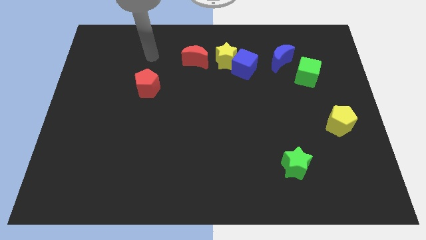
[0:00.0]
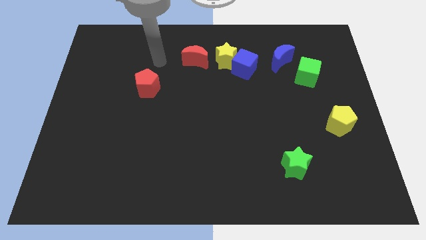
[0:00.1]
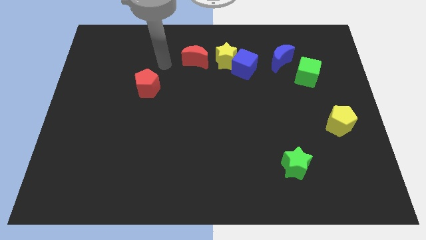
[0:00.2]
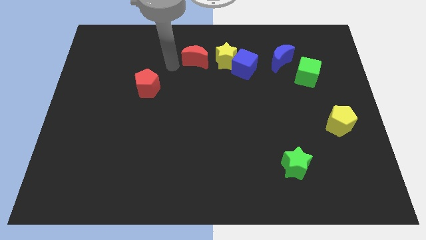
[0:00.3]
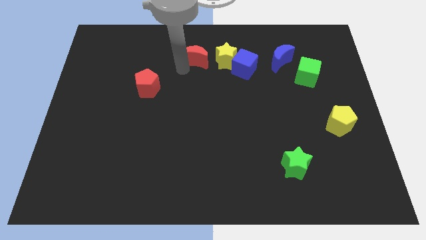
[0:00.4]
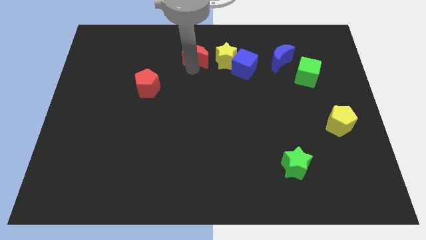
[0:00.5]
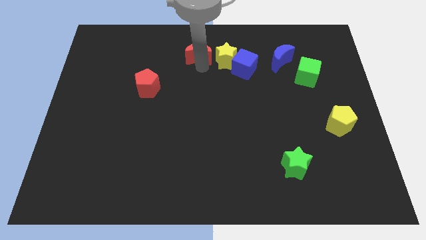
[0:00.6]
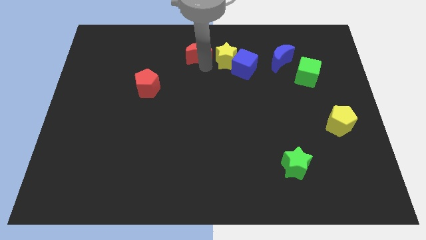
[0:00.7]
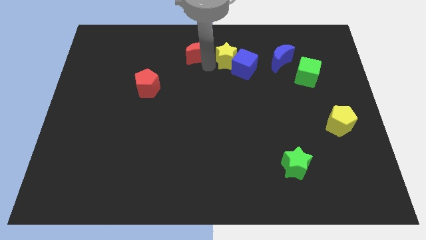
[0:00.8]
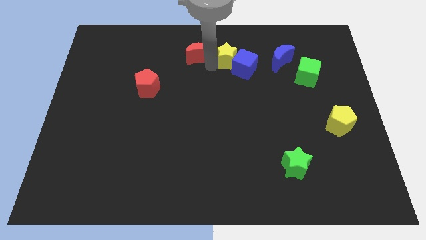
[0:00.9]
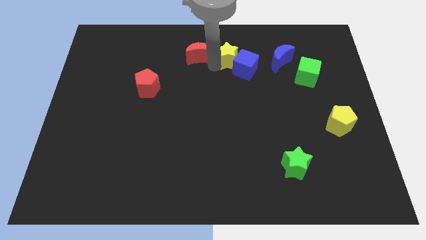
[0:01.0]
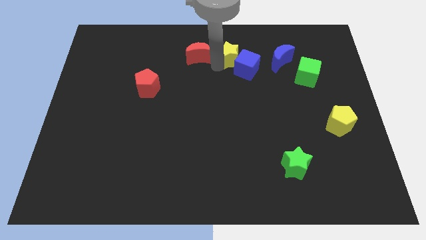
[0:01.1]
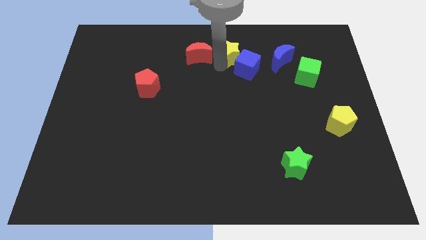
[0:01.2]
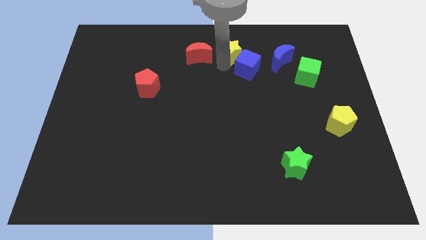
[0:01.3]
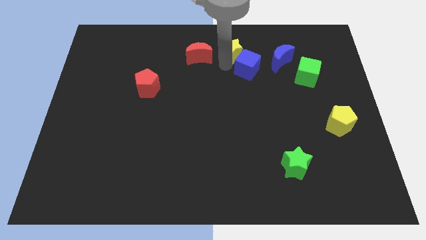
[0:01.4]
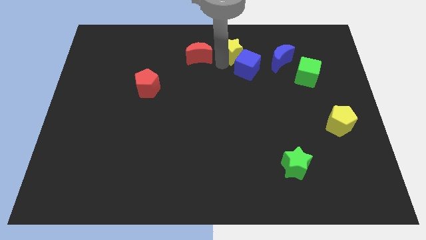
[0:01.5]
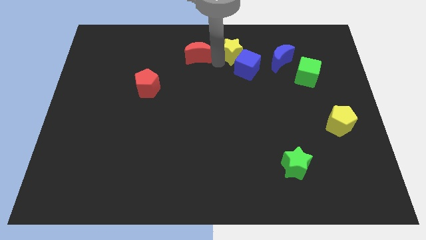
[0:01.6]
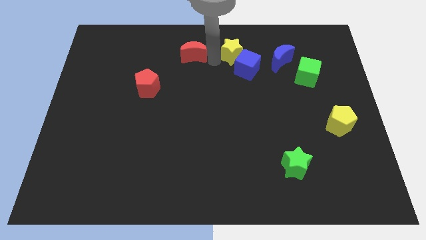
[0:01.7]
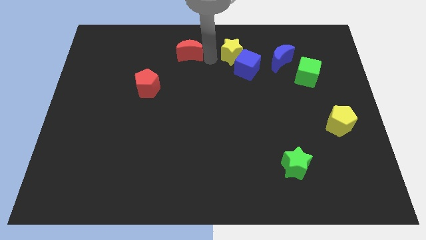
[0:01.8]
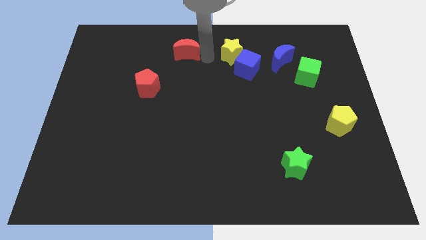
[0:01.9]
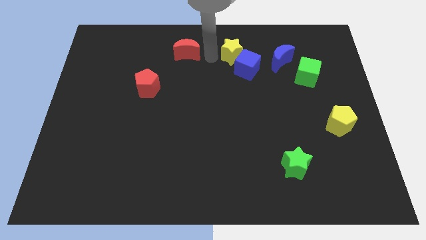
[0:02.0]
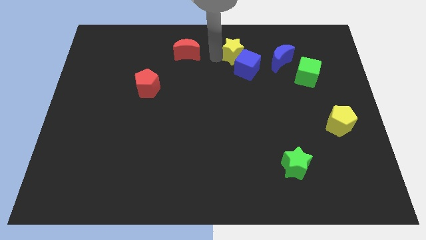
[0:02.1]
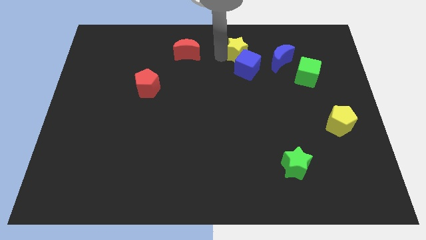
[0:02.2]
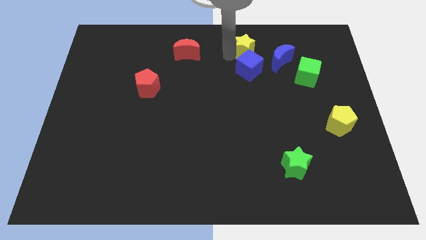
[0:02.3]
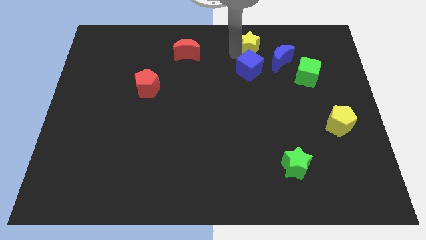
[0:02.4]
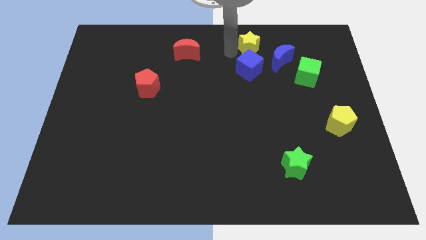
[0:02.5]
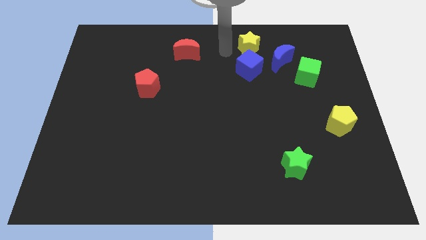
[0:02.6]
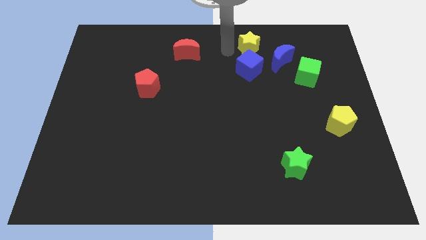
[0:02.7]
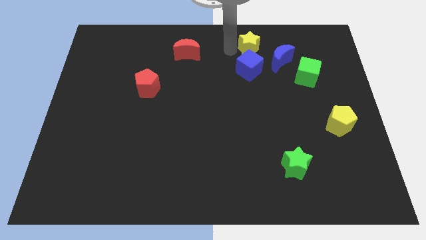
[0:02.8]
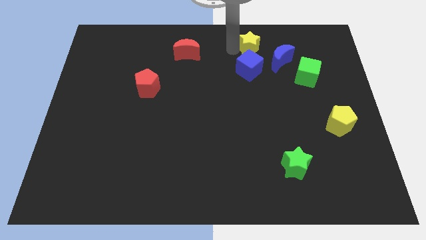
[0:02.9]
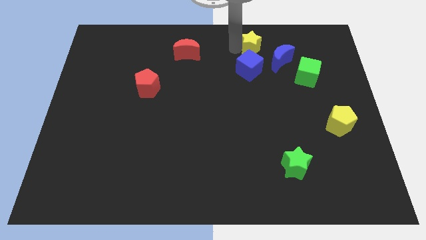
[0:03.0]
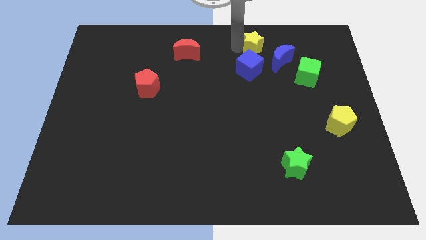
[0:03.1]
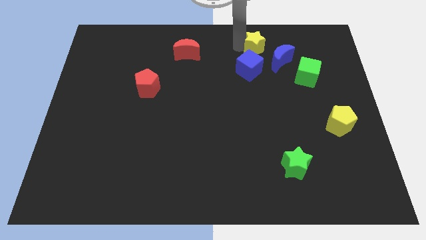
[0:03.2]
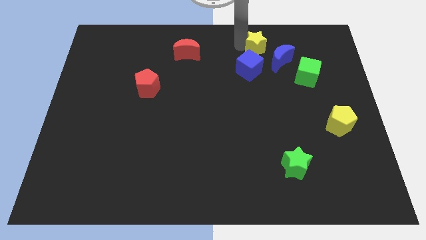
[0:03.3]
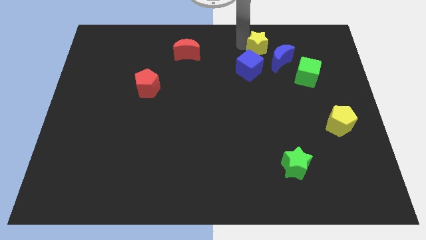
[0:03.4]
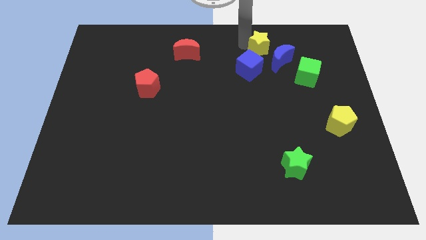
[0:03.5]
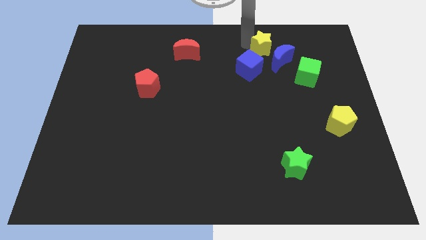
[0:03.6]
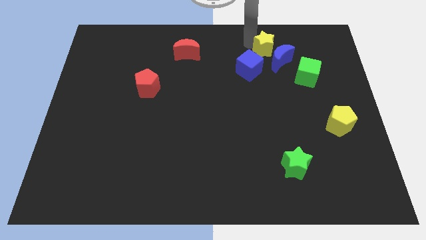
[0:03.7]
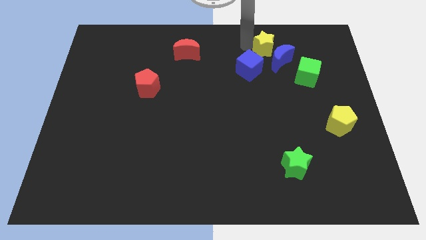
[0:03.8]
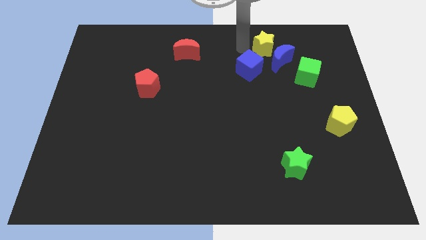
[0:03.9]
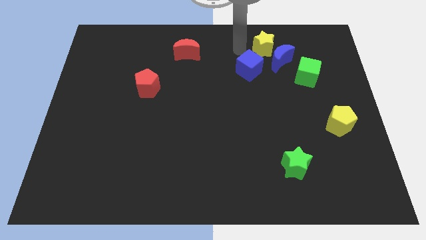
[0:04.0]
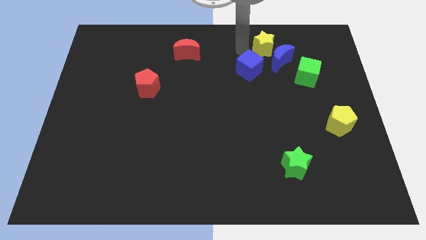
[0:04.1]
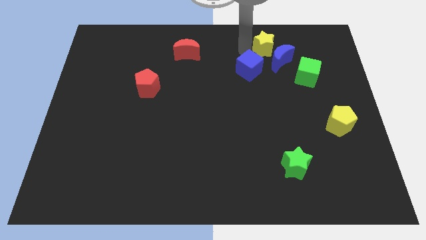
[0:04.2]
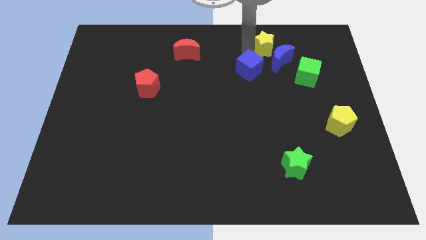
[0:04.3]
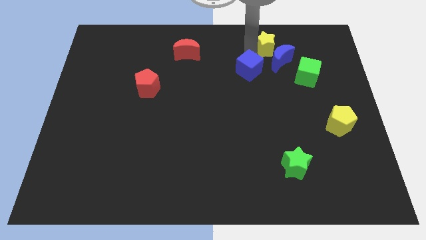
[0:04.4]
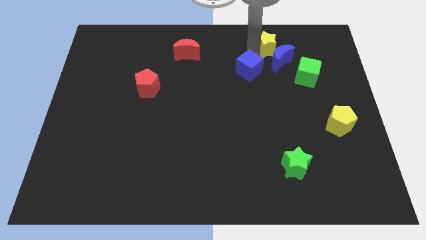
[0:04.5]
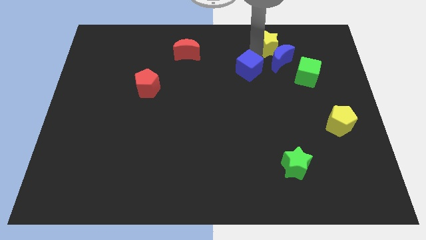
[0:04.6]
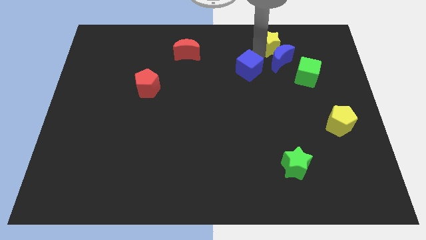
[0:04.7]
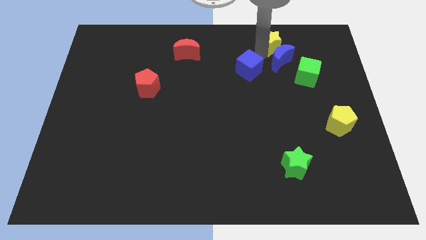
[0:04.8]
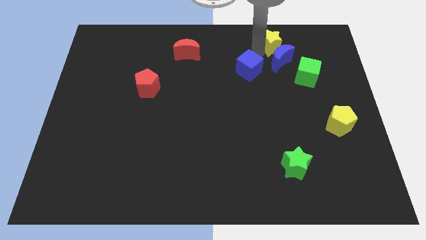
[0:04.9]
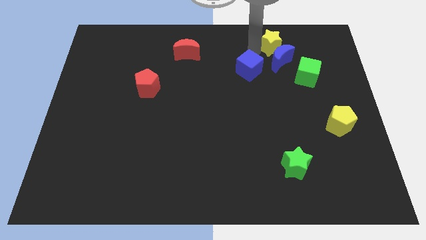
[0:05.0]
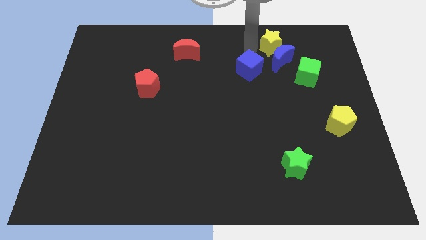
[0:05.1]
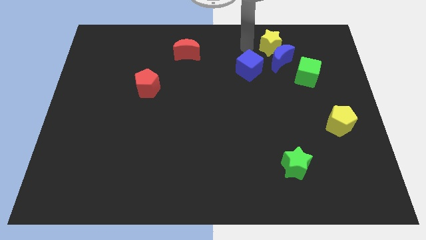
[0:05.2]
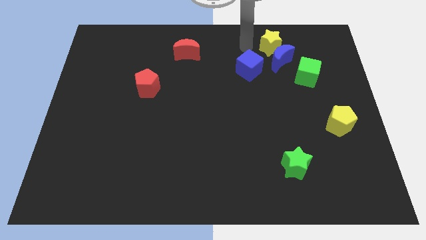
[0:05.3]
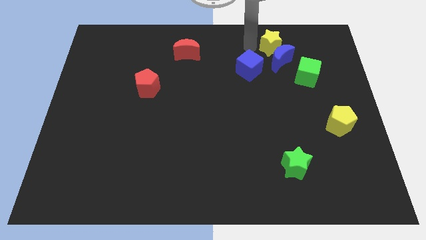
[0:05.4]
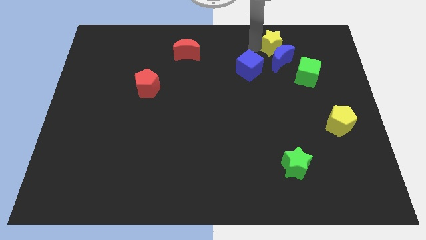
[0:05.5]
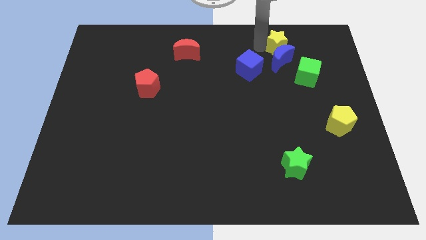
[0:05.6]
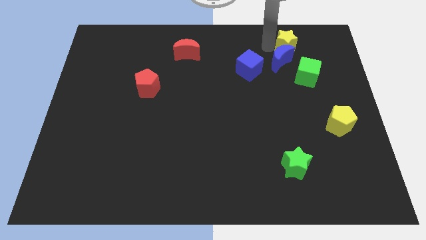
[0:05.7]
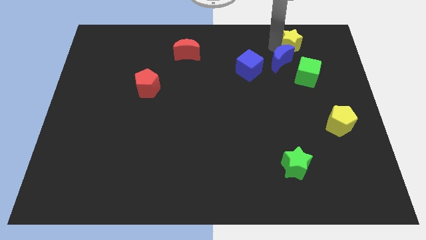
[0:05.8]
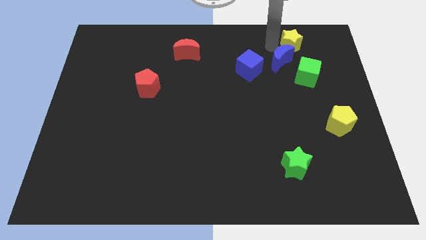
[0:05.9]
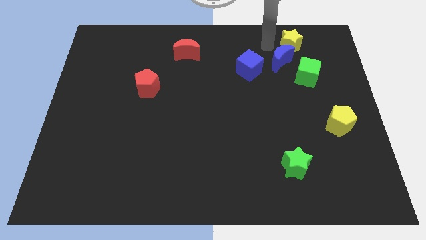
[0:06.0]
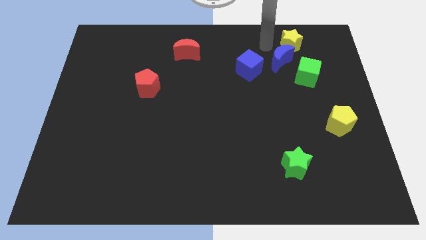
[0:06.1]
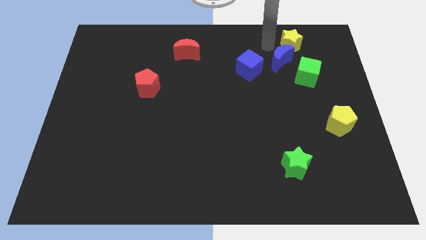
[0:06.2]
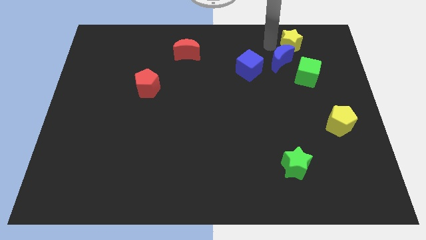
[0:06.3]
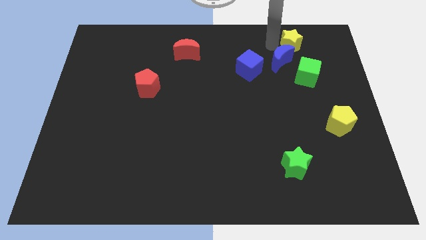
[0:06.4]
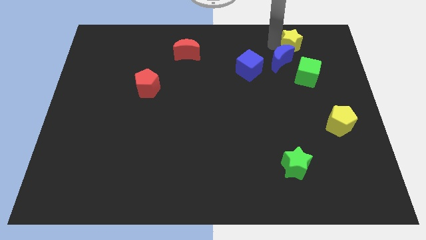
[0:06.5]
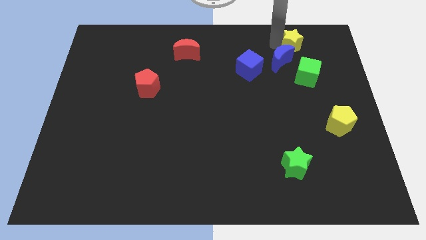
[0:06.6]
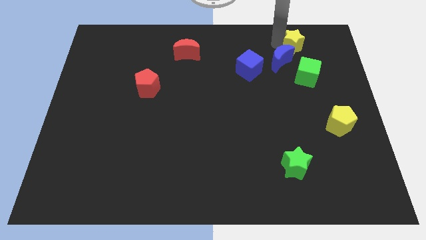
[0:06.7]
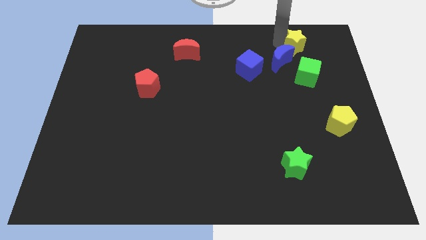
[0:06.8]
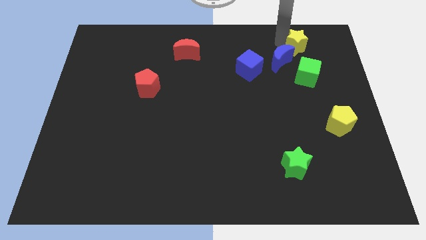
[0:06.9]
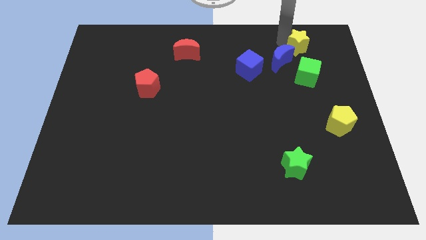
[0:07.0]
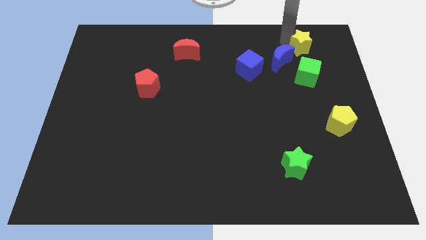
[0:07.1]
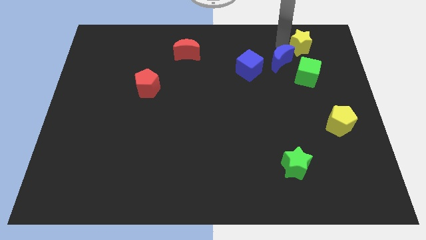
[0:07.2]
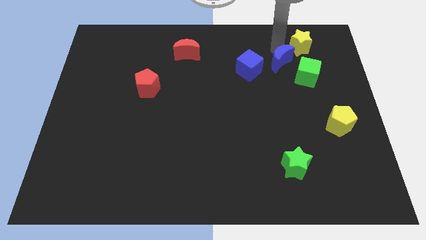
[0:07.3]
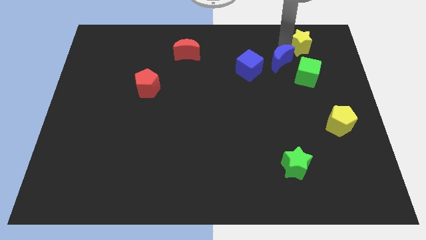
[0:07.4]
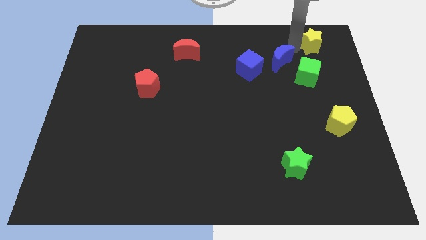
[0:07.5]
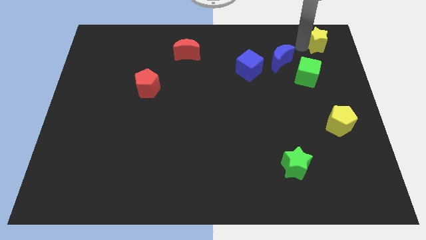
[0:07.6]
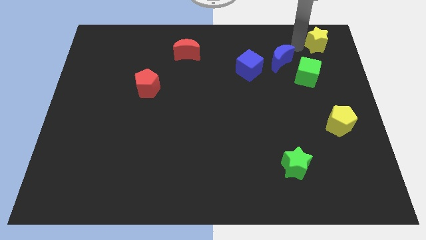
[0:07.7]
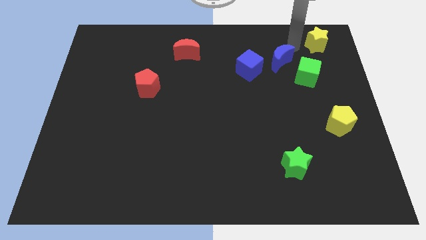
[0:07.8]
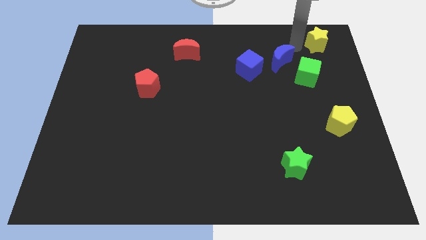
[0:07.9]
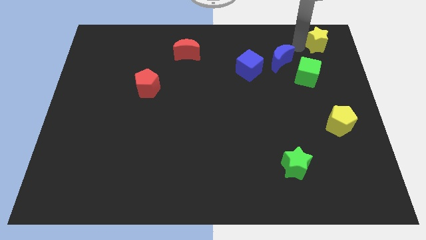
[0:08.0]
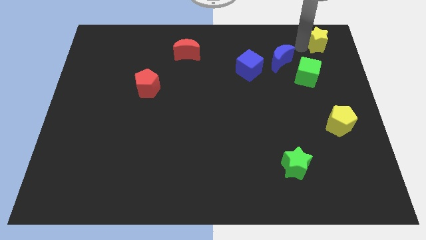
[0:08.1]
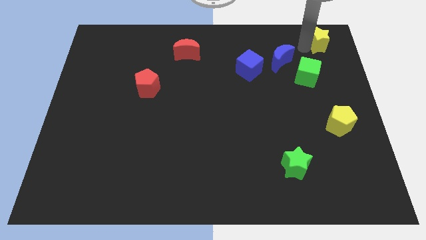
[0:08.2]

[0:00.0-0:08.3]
move the yellow star to the top right
